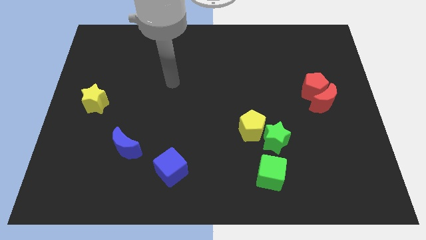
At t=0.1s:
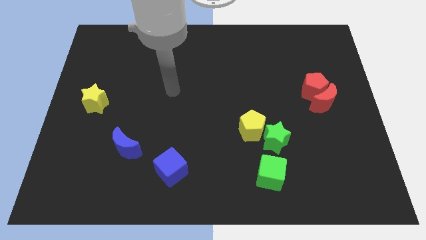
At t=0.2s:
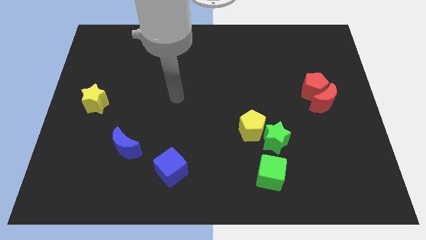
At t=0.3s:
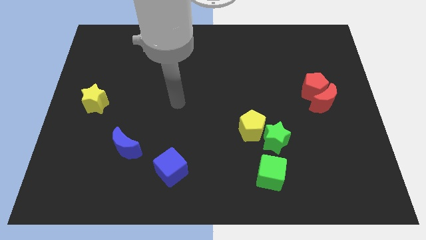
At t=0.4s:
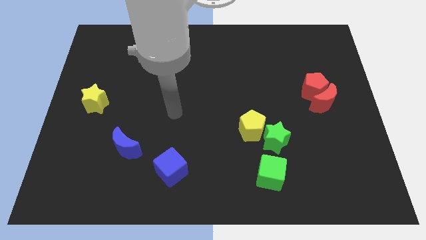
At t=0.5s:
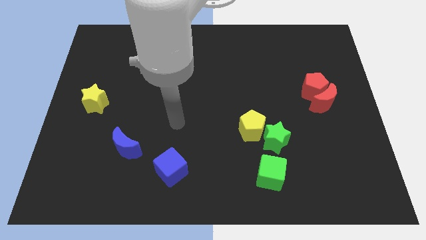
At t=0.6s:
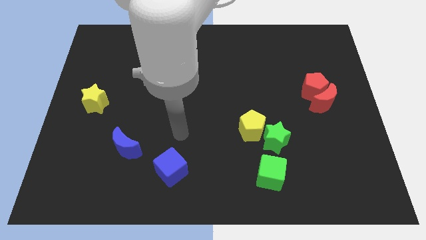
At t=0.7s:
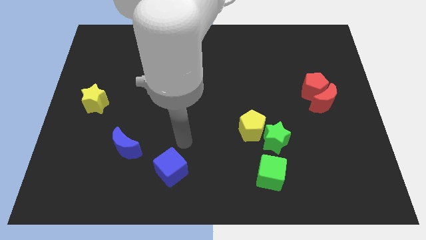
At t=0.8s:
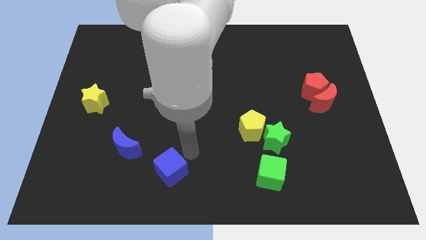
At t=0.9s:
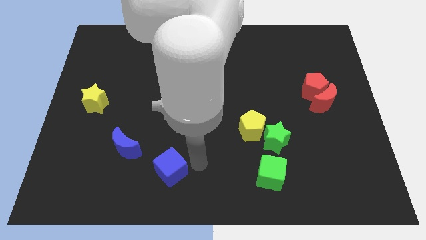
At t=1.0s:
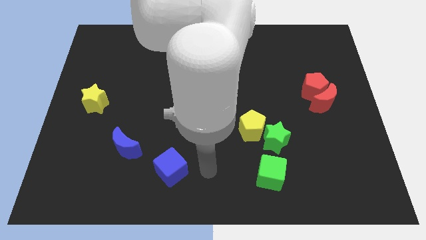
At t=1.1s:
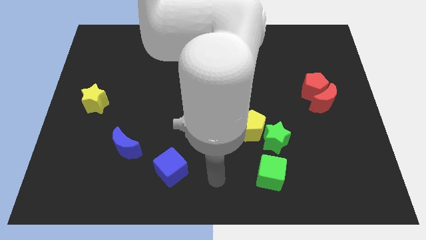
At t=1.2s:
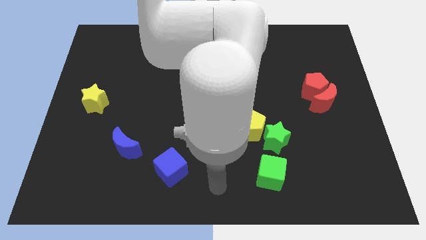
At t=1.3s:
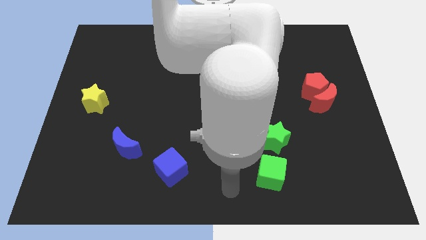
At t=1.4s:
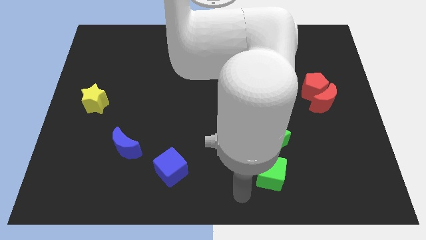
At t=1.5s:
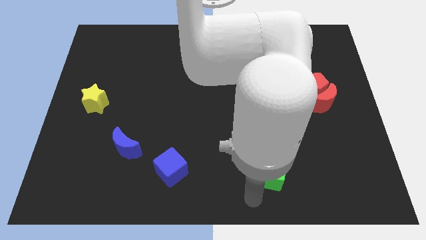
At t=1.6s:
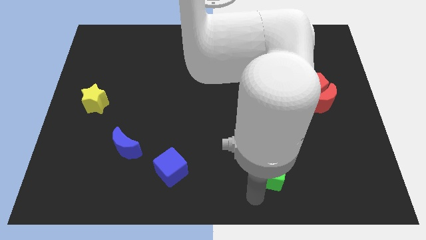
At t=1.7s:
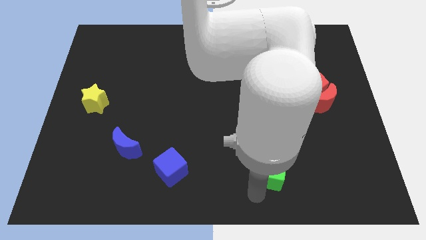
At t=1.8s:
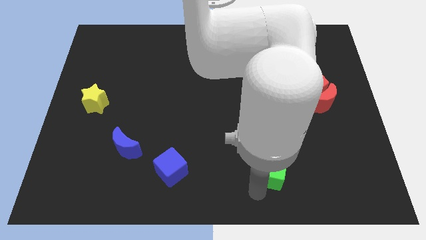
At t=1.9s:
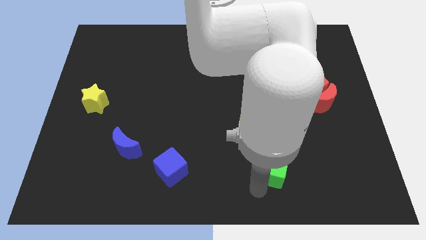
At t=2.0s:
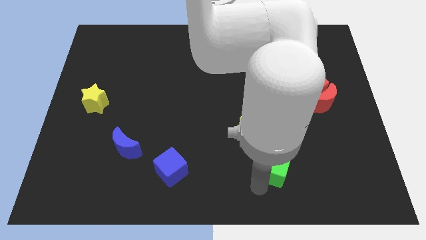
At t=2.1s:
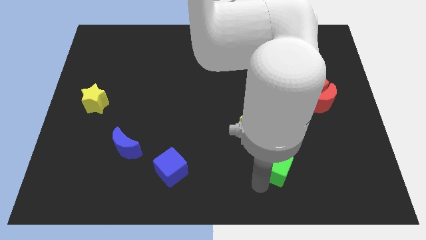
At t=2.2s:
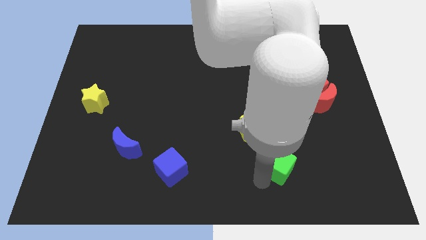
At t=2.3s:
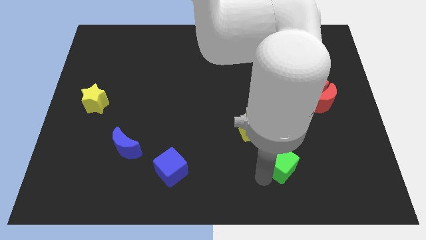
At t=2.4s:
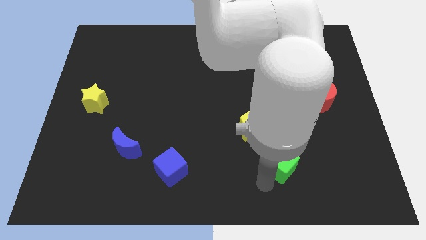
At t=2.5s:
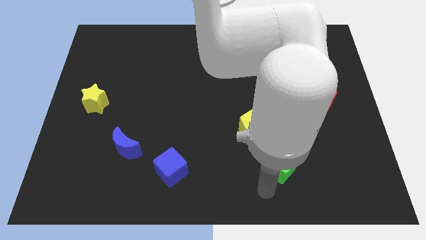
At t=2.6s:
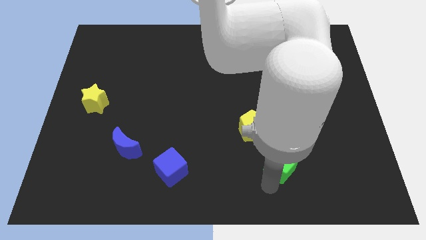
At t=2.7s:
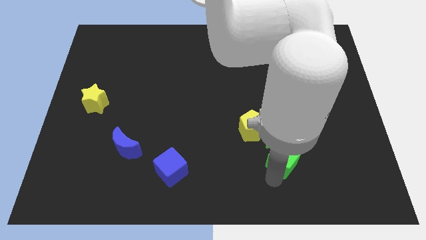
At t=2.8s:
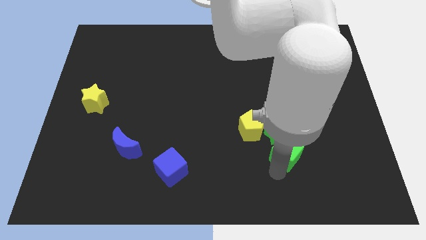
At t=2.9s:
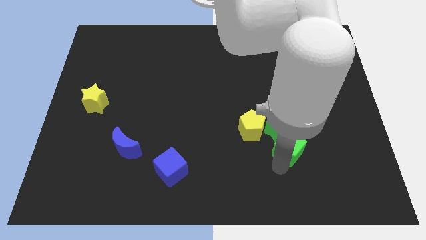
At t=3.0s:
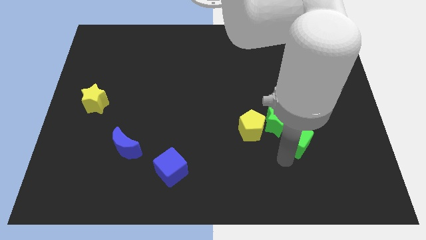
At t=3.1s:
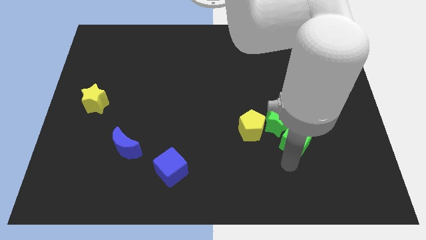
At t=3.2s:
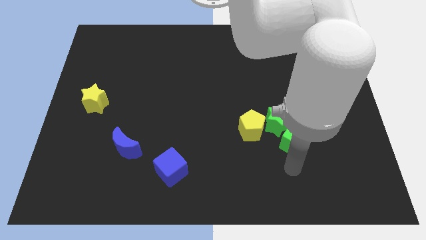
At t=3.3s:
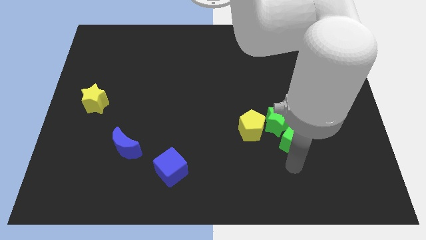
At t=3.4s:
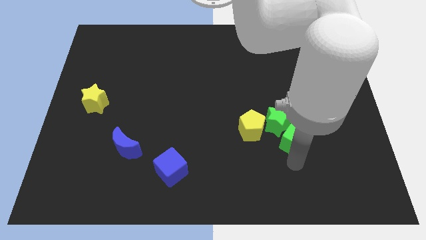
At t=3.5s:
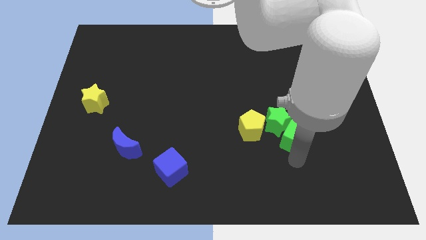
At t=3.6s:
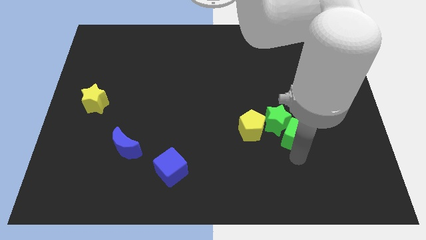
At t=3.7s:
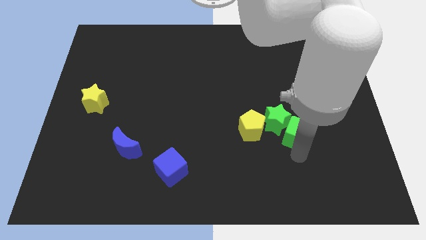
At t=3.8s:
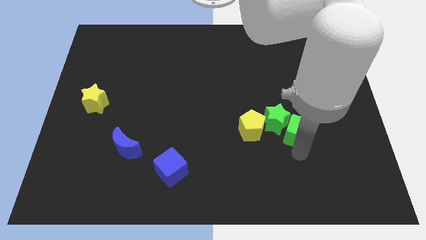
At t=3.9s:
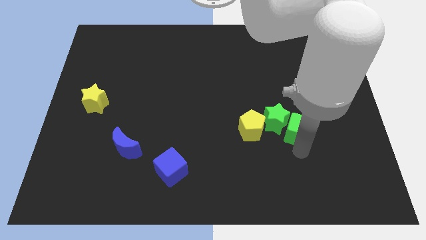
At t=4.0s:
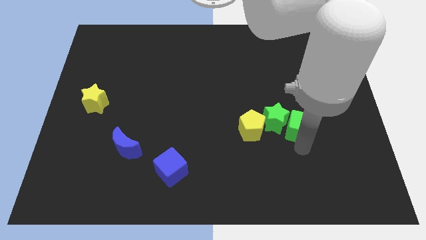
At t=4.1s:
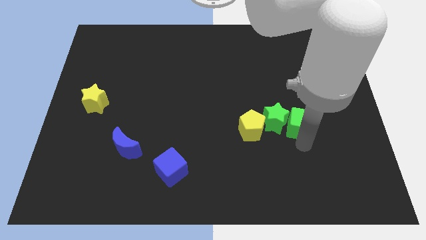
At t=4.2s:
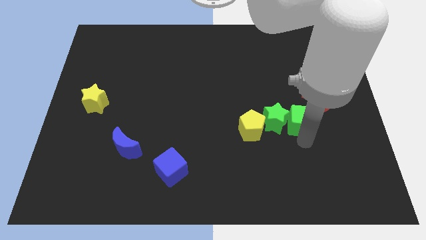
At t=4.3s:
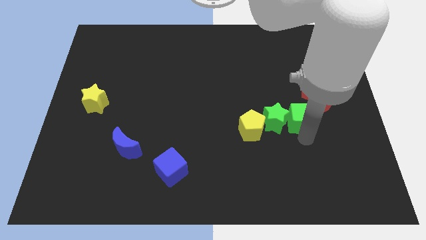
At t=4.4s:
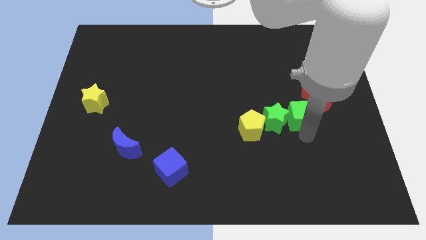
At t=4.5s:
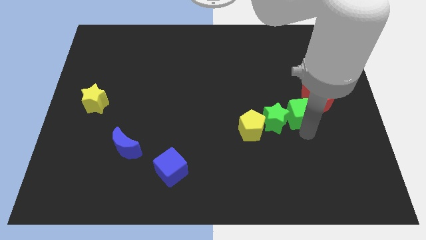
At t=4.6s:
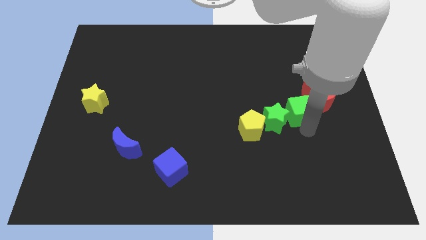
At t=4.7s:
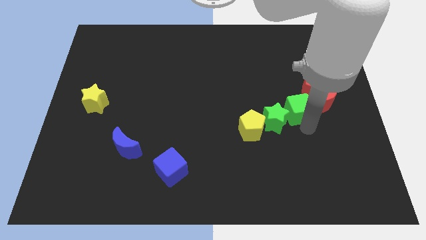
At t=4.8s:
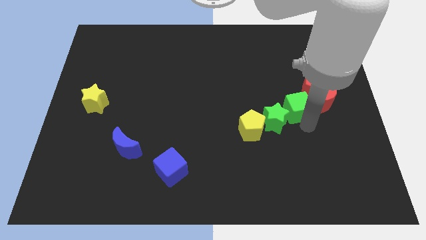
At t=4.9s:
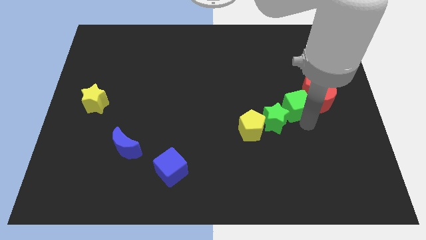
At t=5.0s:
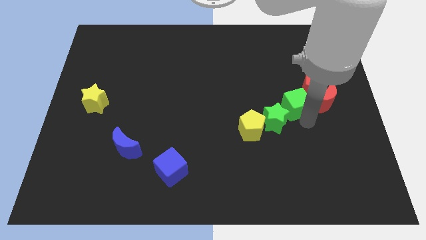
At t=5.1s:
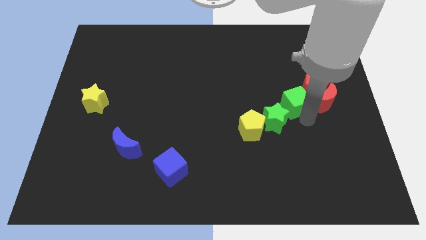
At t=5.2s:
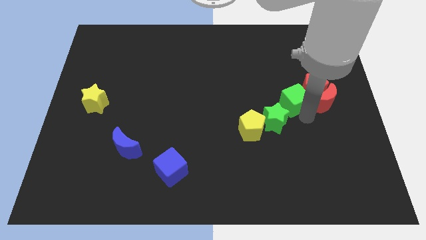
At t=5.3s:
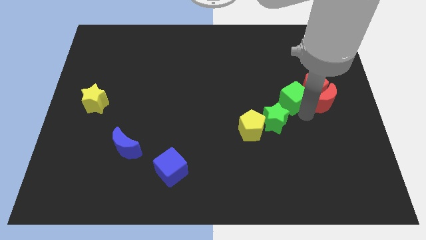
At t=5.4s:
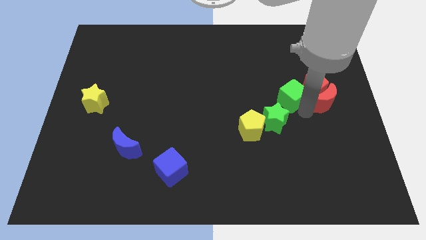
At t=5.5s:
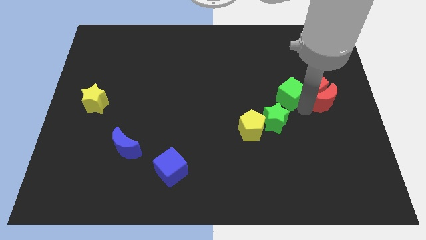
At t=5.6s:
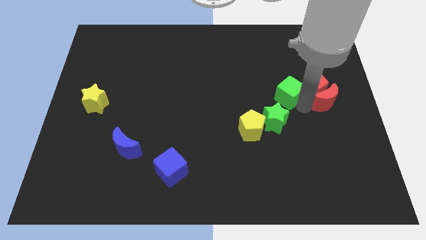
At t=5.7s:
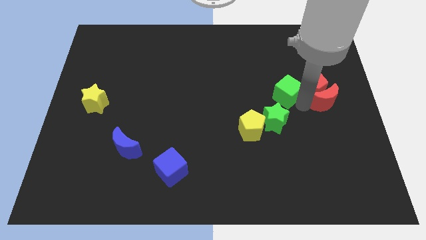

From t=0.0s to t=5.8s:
slide the green cube upwards

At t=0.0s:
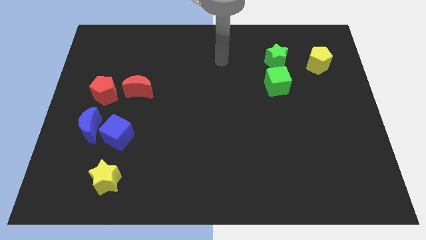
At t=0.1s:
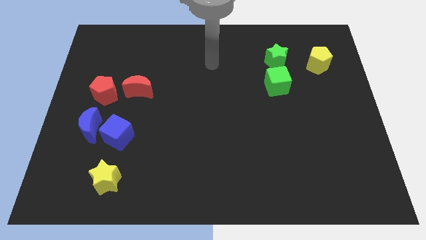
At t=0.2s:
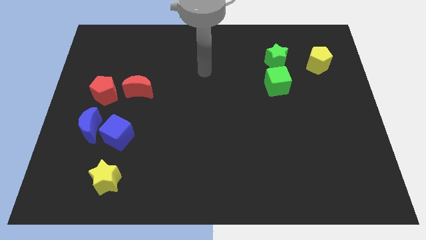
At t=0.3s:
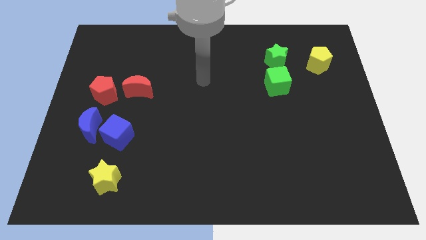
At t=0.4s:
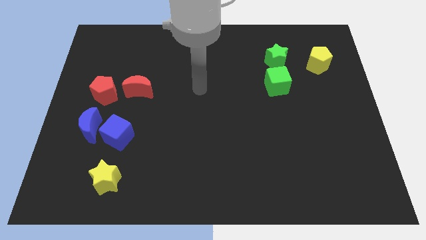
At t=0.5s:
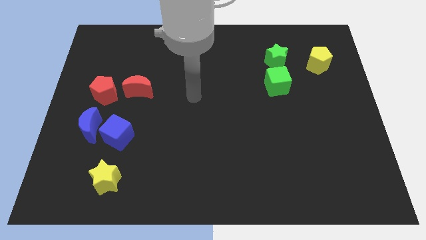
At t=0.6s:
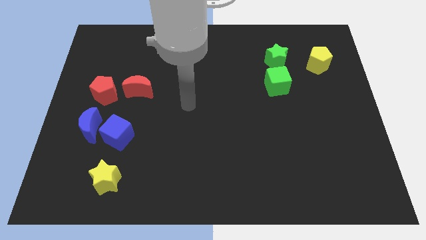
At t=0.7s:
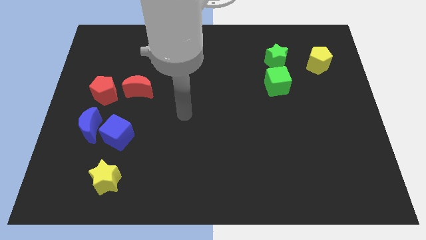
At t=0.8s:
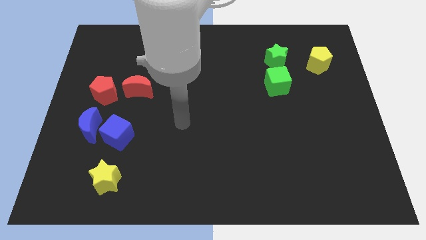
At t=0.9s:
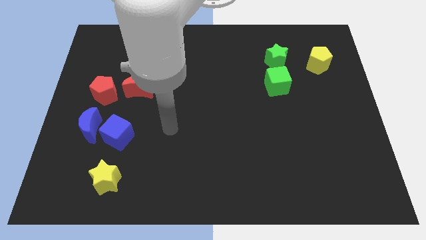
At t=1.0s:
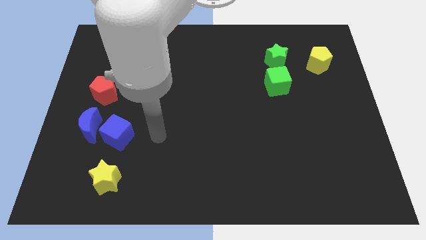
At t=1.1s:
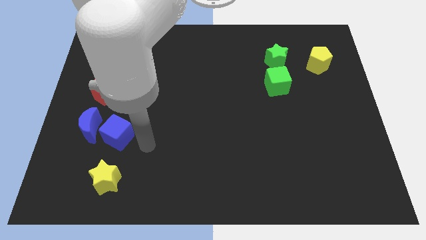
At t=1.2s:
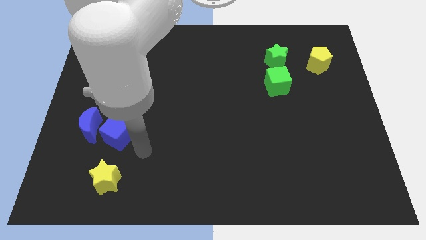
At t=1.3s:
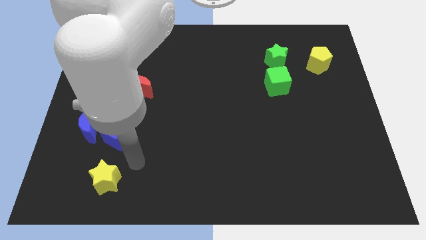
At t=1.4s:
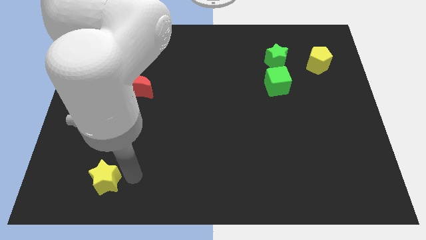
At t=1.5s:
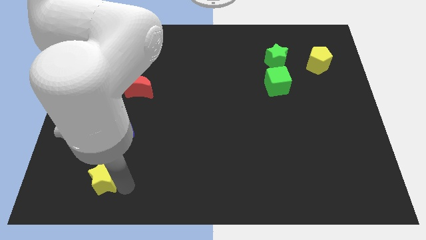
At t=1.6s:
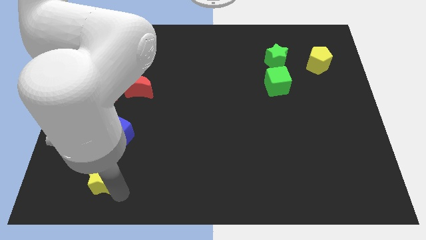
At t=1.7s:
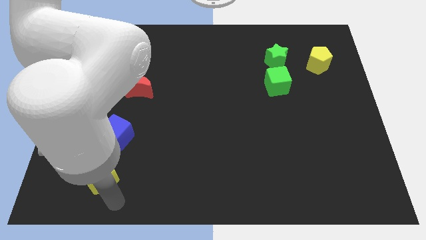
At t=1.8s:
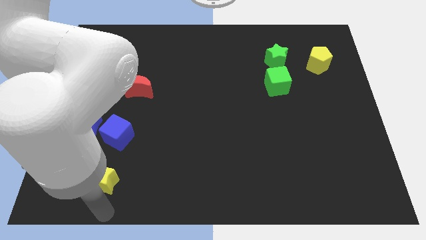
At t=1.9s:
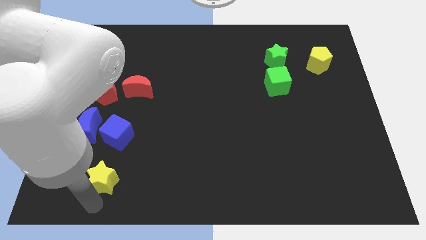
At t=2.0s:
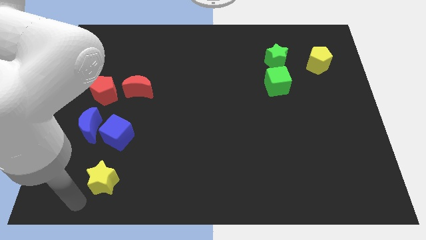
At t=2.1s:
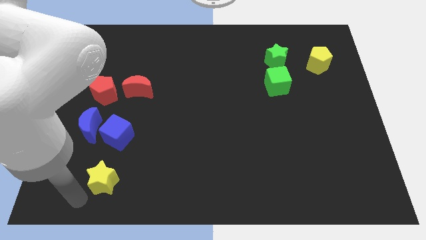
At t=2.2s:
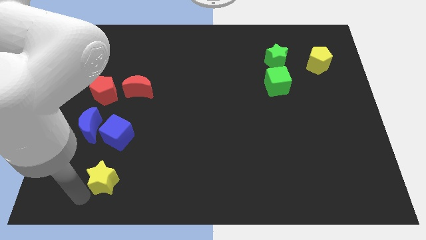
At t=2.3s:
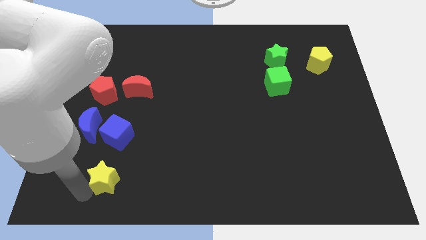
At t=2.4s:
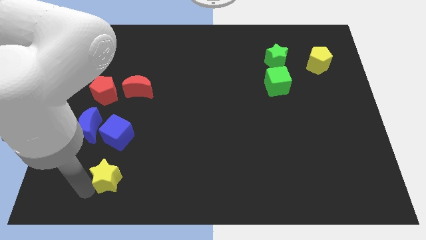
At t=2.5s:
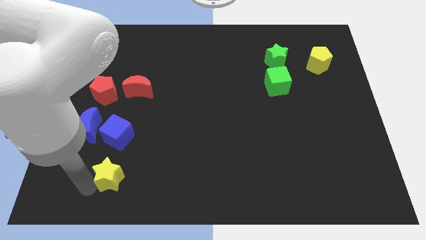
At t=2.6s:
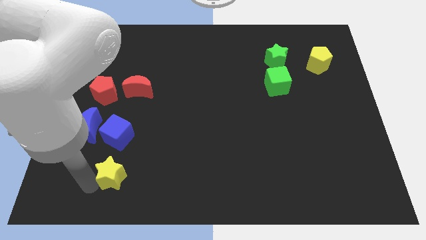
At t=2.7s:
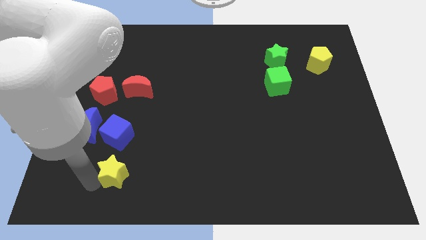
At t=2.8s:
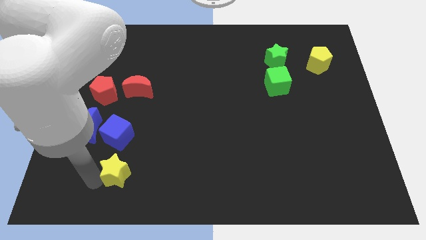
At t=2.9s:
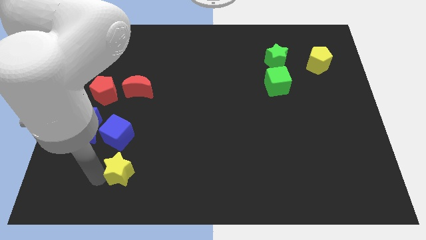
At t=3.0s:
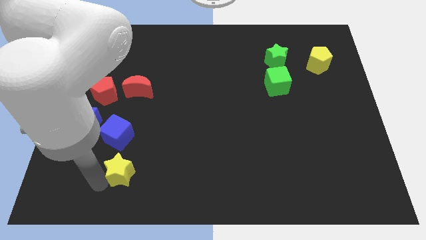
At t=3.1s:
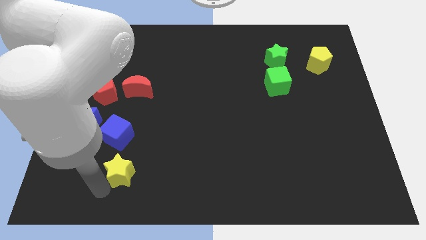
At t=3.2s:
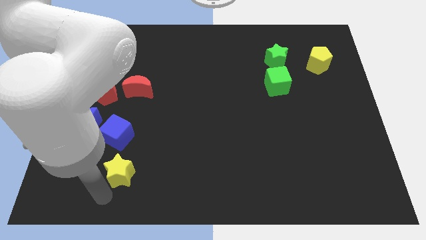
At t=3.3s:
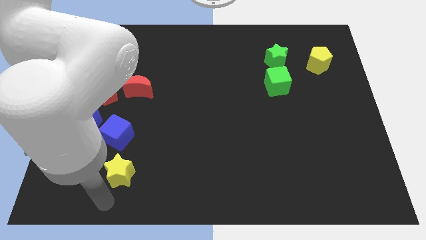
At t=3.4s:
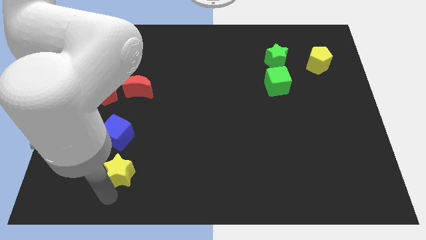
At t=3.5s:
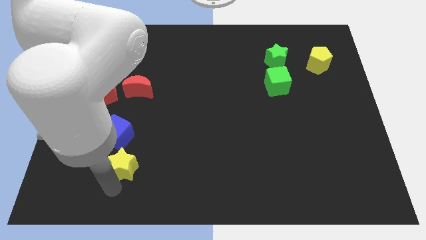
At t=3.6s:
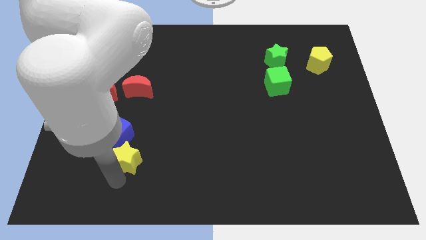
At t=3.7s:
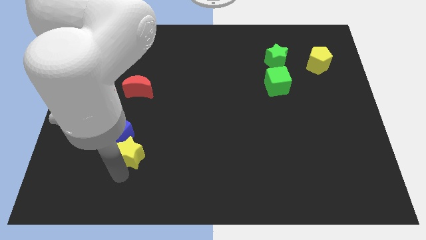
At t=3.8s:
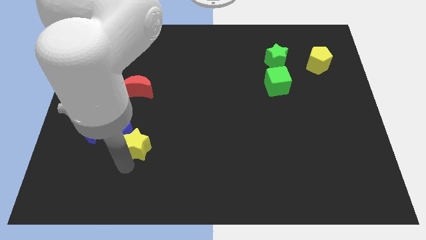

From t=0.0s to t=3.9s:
slightly move the yellow star upwards
